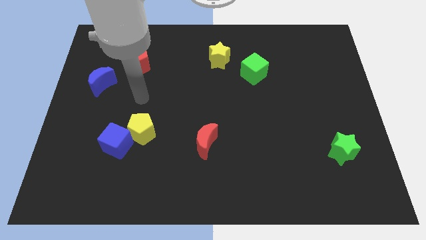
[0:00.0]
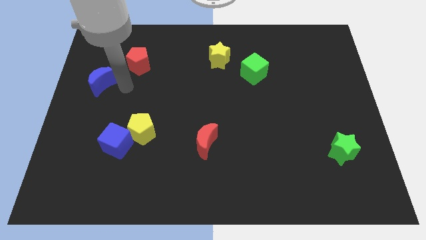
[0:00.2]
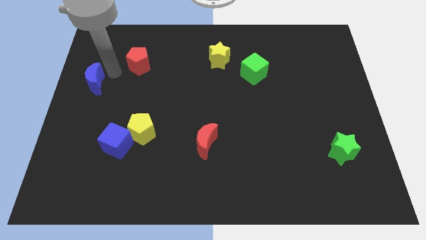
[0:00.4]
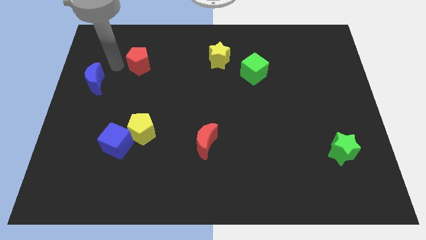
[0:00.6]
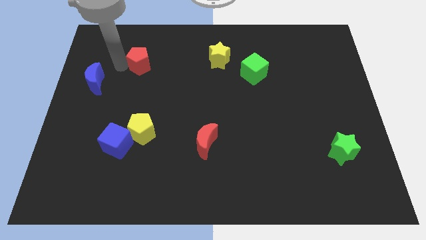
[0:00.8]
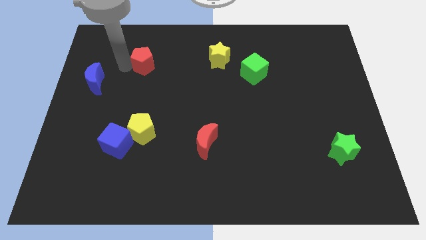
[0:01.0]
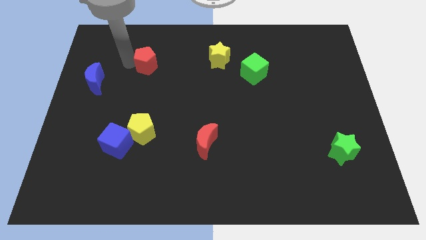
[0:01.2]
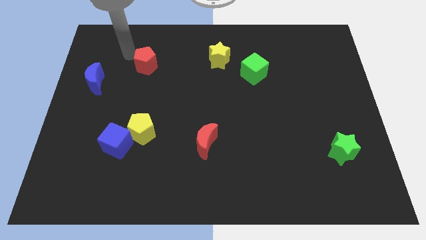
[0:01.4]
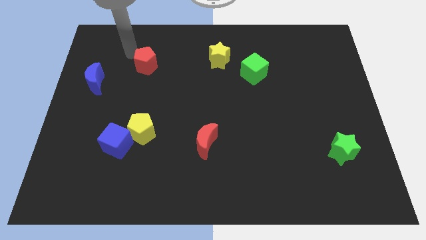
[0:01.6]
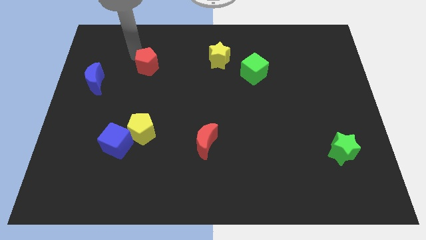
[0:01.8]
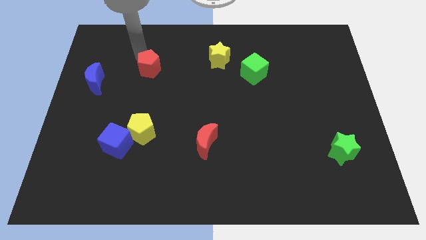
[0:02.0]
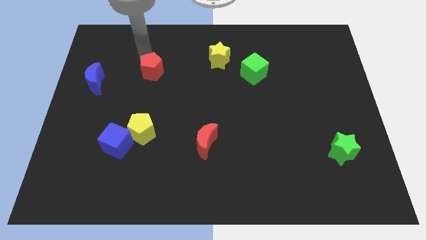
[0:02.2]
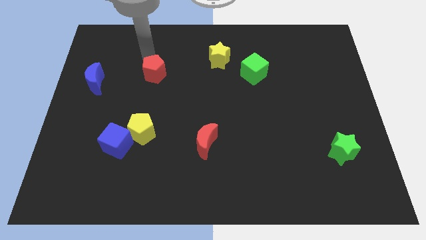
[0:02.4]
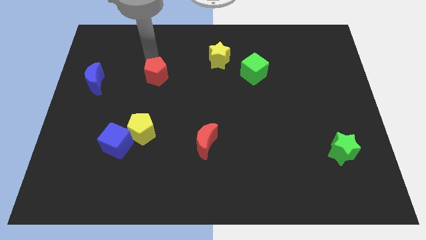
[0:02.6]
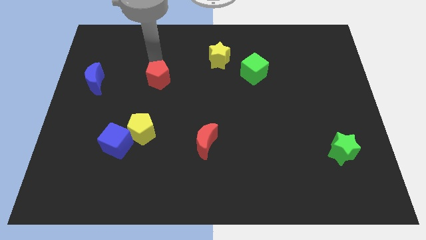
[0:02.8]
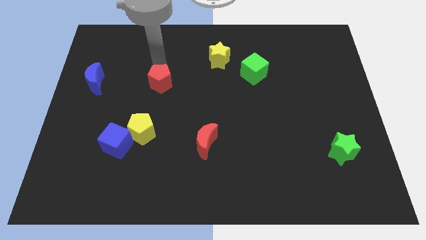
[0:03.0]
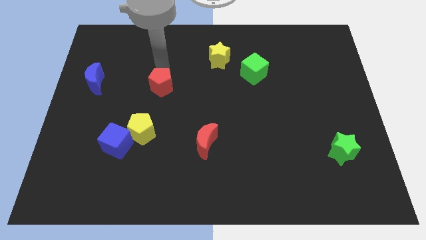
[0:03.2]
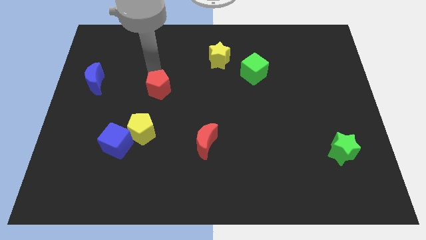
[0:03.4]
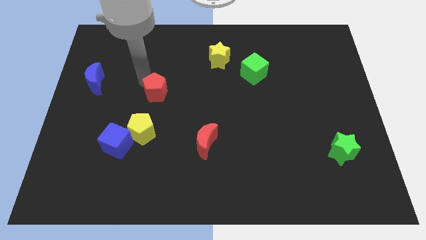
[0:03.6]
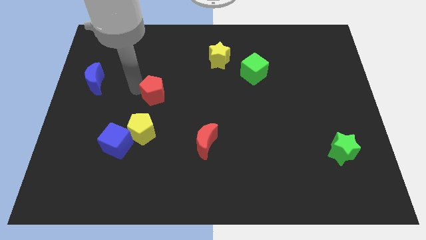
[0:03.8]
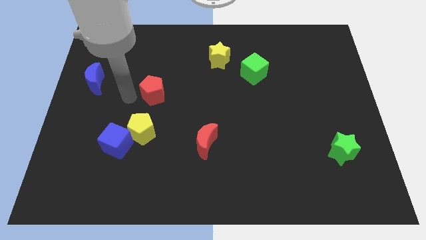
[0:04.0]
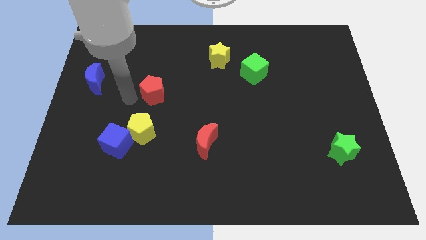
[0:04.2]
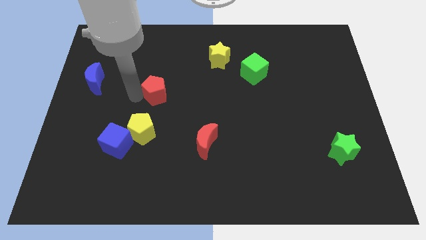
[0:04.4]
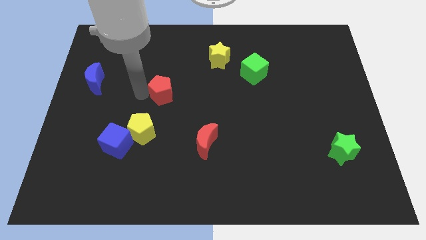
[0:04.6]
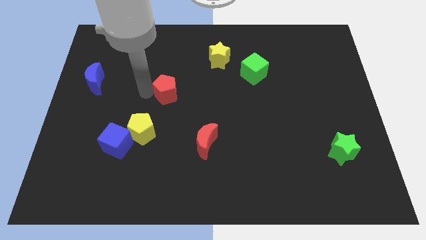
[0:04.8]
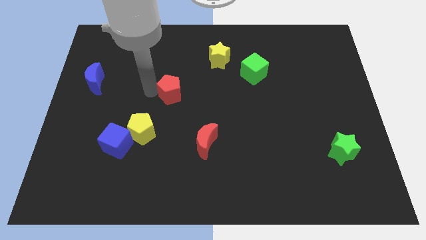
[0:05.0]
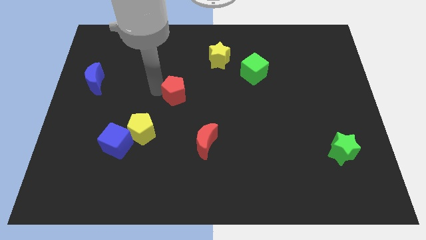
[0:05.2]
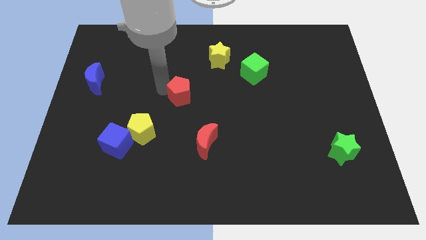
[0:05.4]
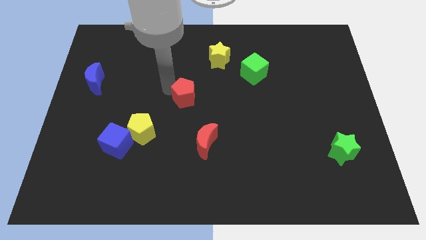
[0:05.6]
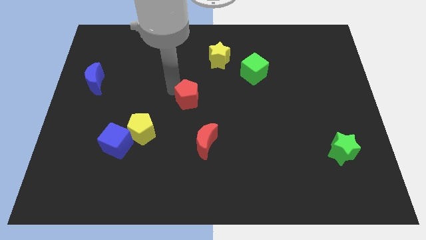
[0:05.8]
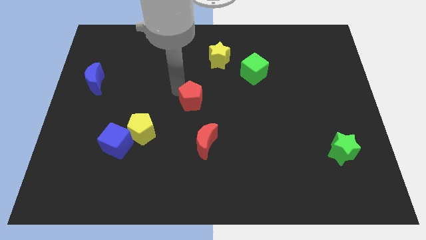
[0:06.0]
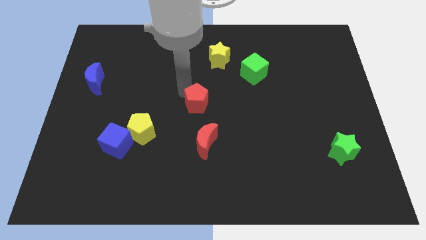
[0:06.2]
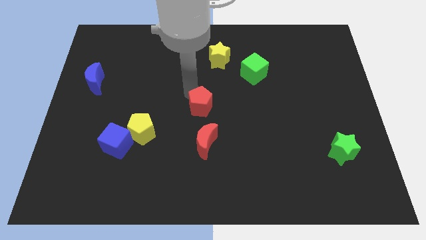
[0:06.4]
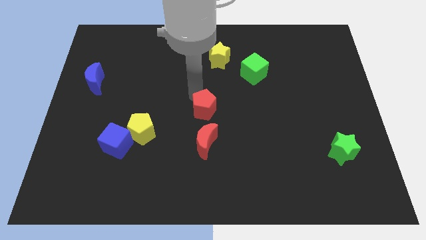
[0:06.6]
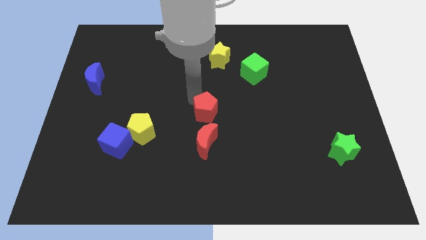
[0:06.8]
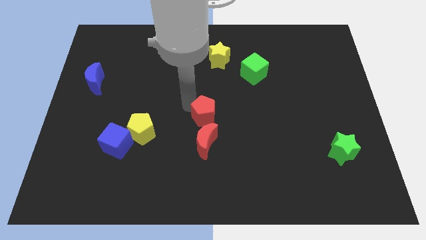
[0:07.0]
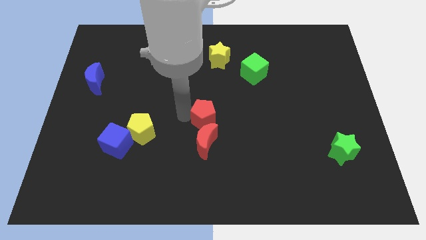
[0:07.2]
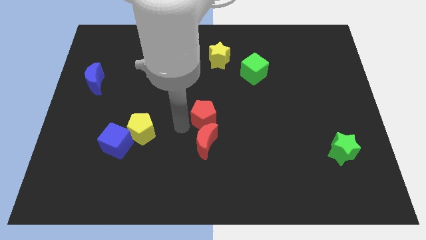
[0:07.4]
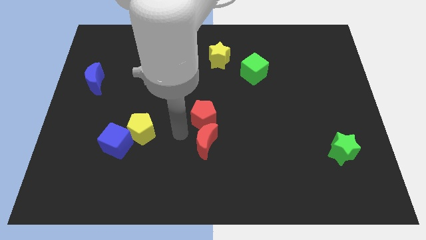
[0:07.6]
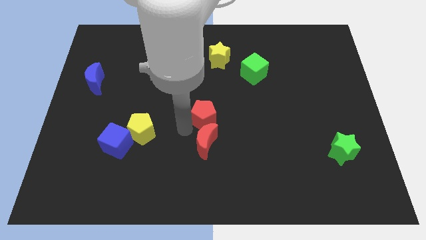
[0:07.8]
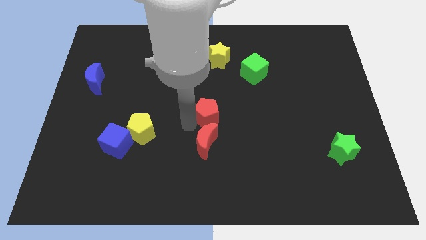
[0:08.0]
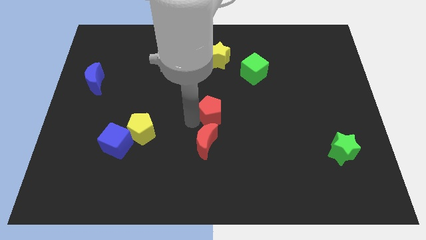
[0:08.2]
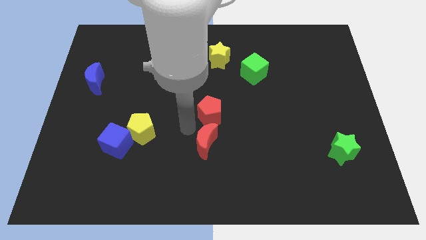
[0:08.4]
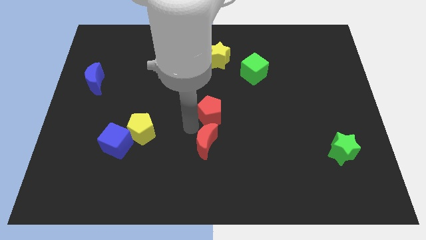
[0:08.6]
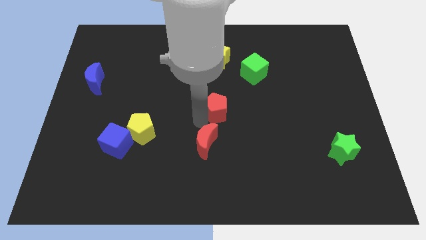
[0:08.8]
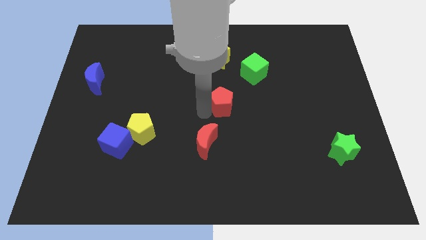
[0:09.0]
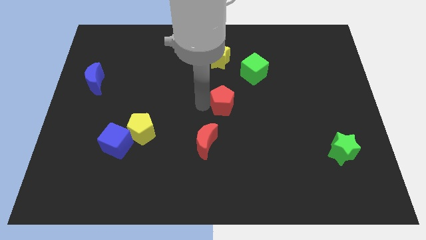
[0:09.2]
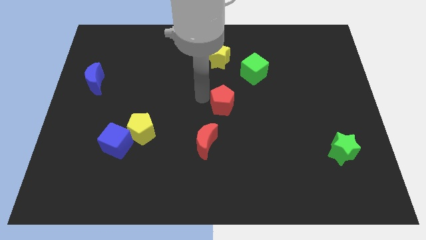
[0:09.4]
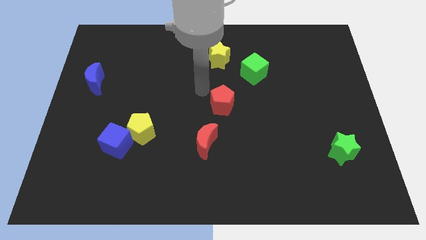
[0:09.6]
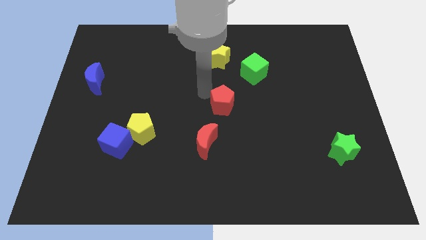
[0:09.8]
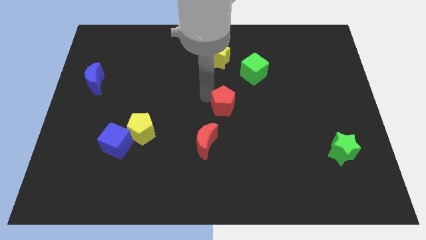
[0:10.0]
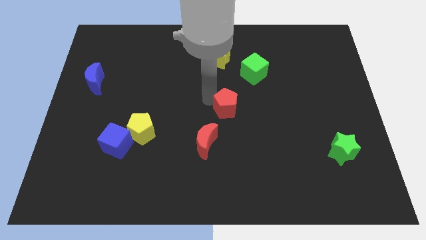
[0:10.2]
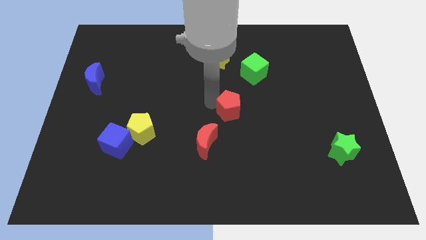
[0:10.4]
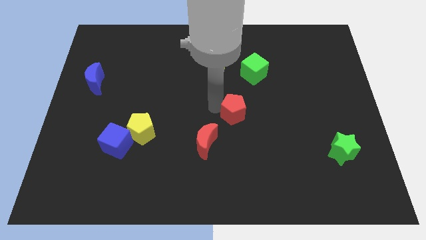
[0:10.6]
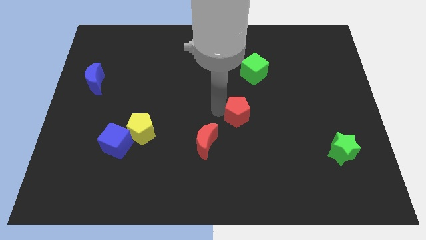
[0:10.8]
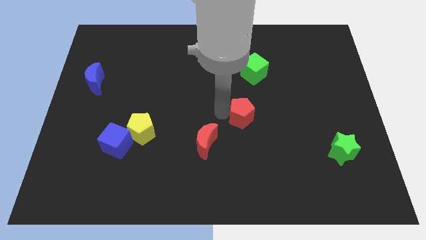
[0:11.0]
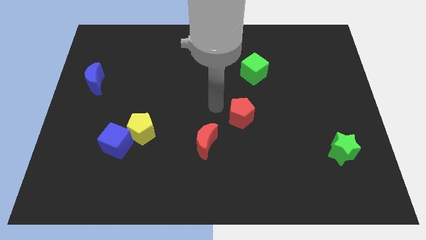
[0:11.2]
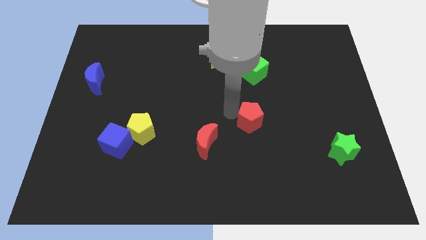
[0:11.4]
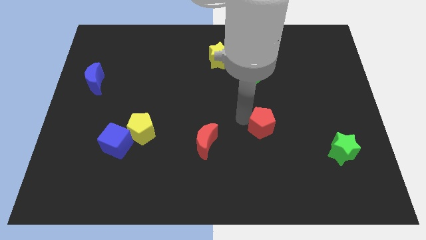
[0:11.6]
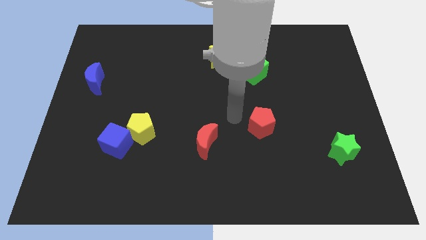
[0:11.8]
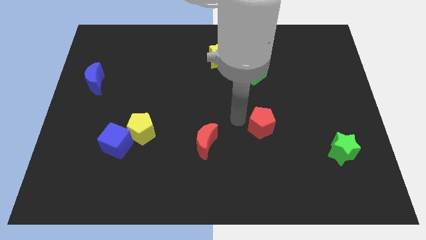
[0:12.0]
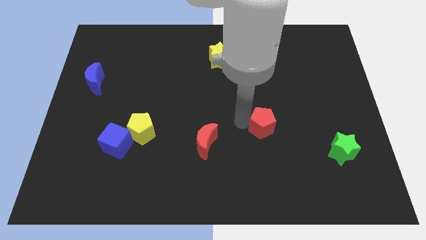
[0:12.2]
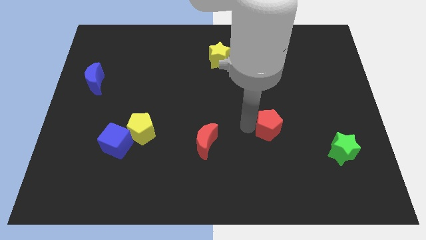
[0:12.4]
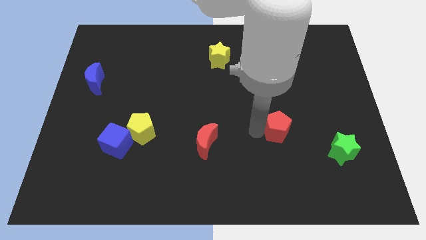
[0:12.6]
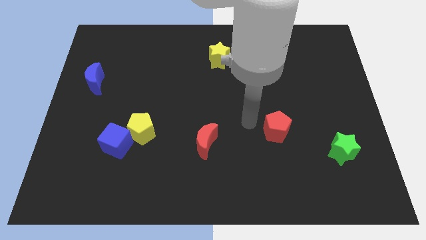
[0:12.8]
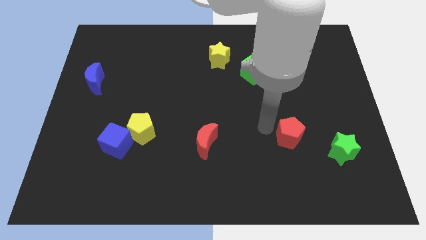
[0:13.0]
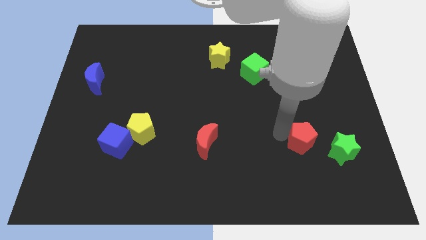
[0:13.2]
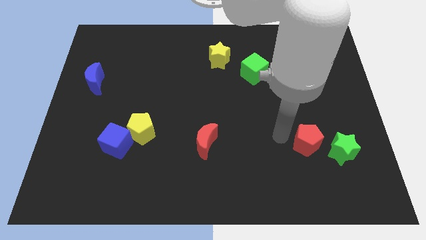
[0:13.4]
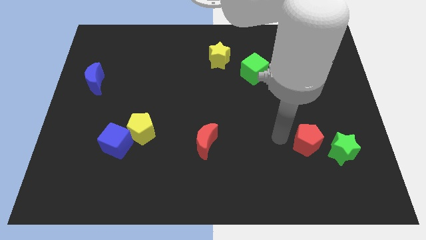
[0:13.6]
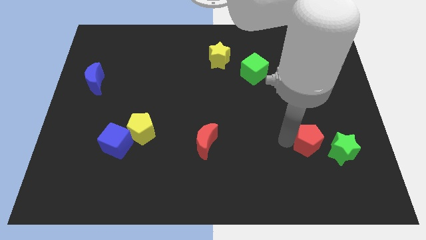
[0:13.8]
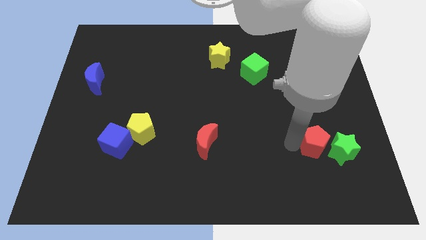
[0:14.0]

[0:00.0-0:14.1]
slide the red pentagon towards the green star
